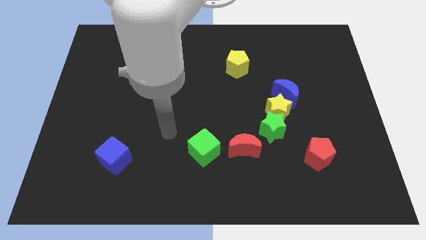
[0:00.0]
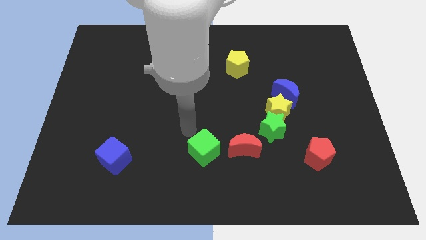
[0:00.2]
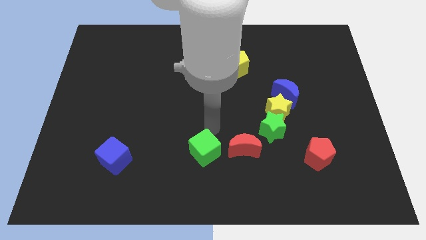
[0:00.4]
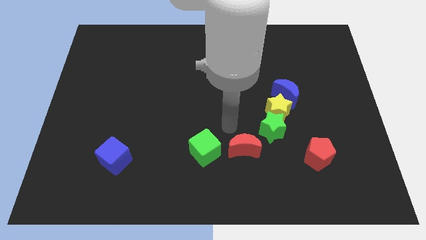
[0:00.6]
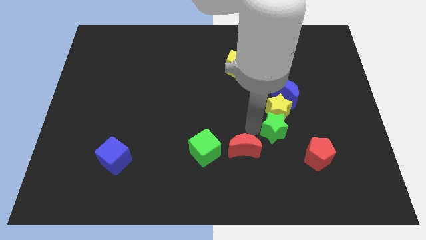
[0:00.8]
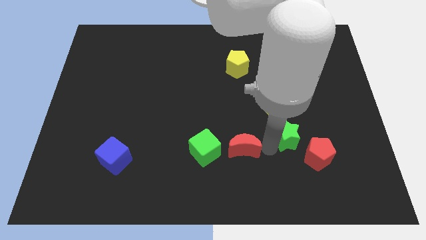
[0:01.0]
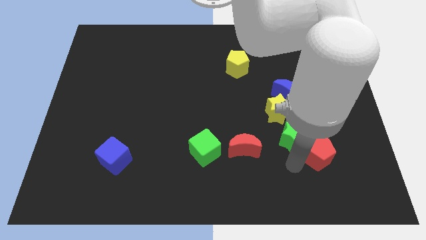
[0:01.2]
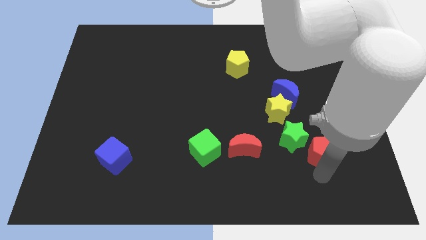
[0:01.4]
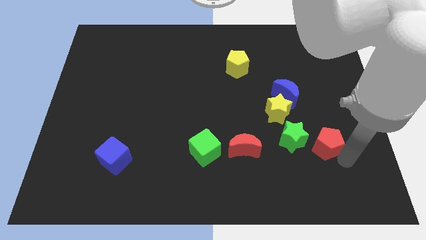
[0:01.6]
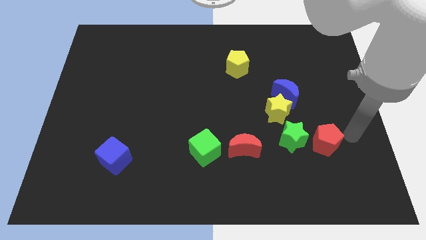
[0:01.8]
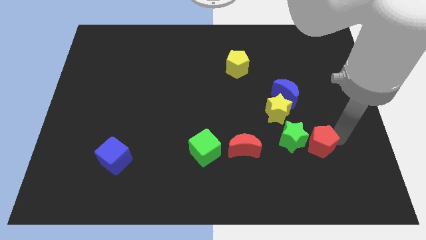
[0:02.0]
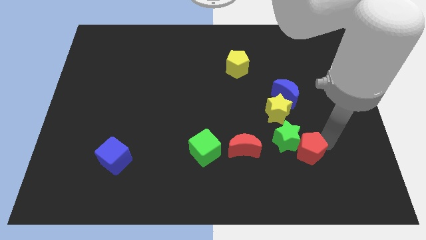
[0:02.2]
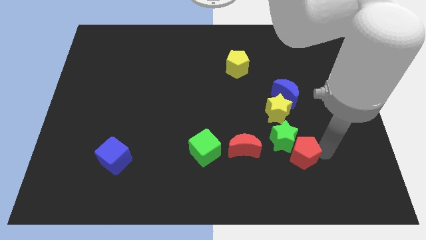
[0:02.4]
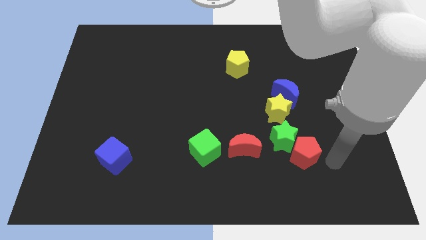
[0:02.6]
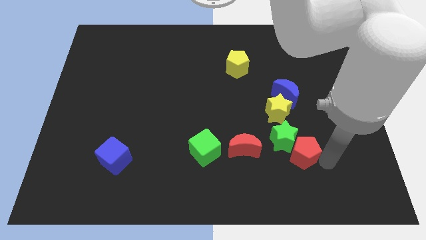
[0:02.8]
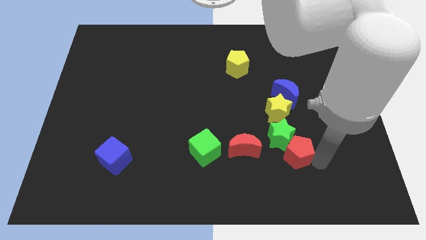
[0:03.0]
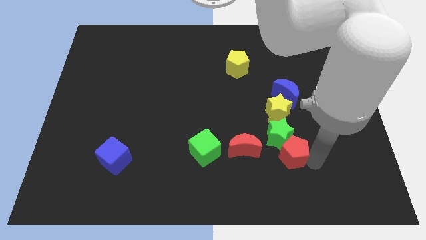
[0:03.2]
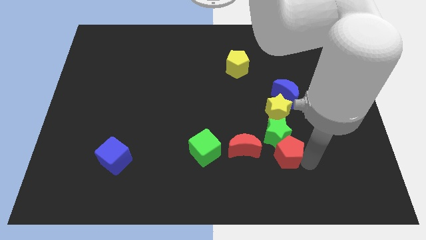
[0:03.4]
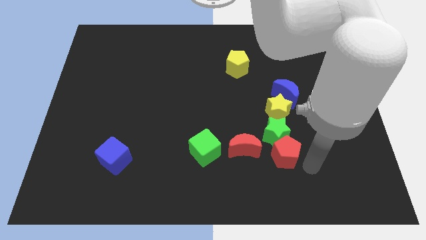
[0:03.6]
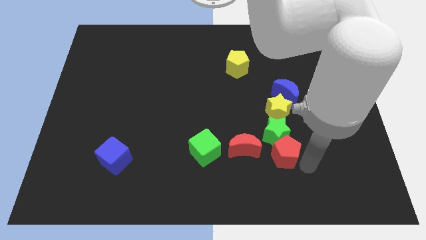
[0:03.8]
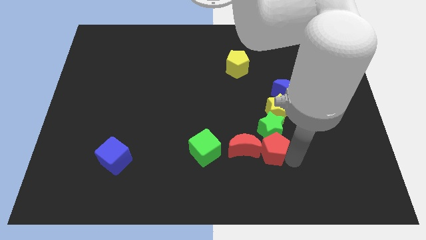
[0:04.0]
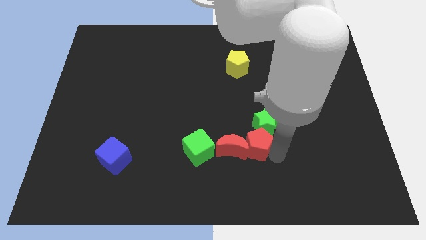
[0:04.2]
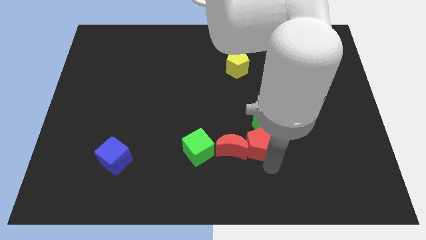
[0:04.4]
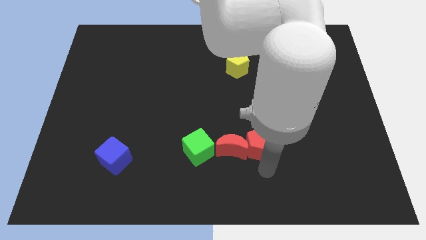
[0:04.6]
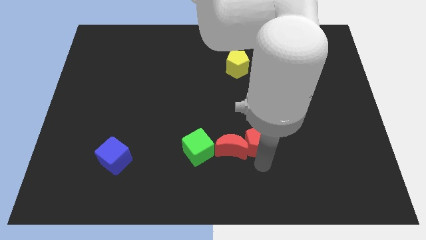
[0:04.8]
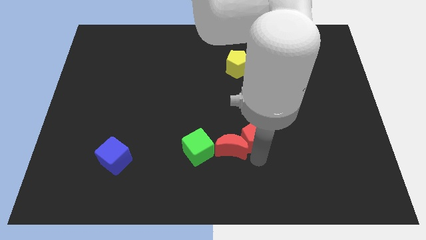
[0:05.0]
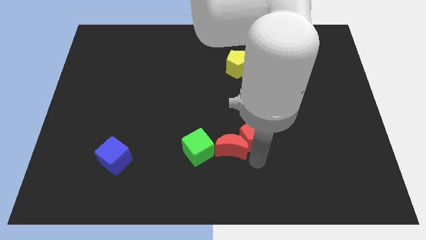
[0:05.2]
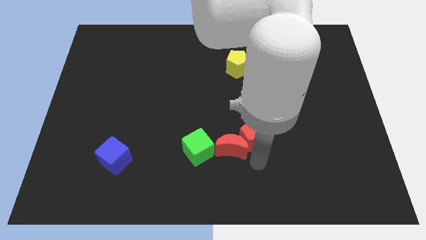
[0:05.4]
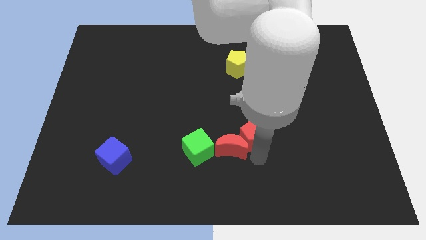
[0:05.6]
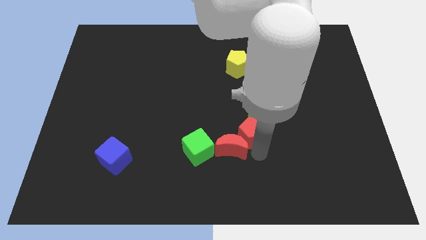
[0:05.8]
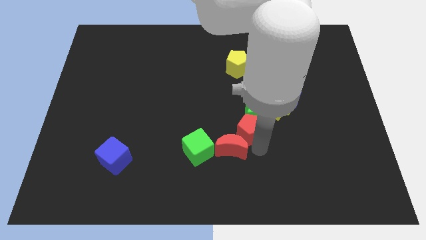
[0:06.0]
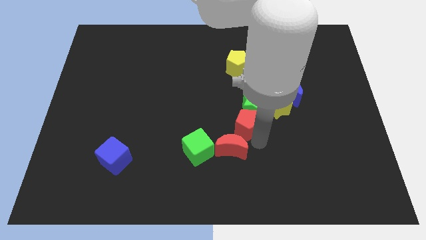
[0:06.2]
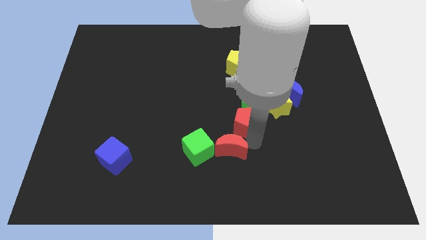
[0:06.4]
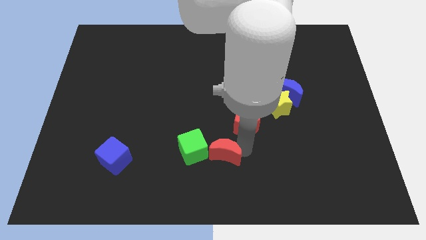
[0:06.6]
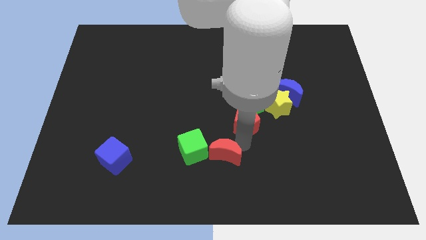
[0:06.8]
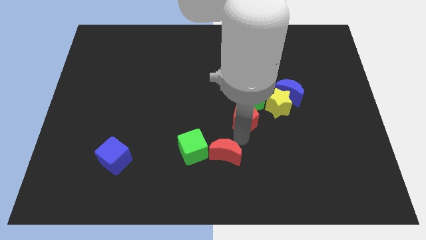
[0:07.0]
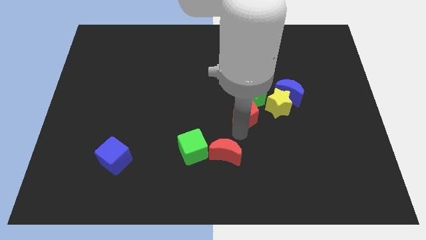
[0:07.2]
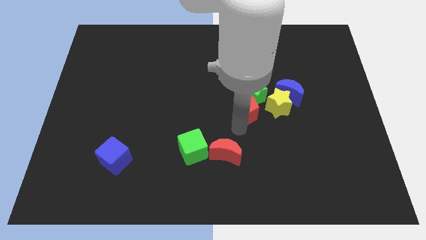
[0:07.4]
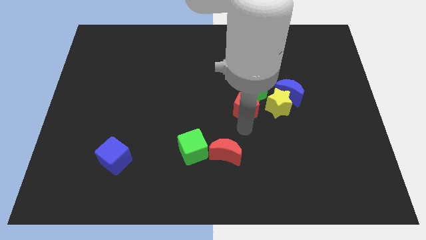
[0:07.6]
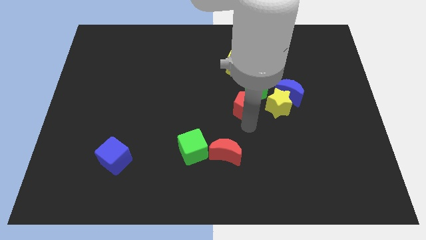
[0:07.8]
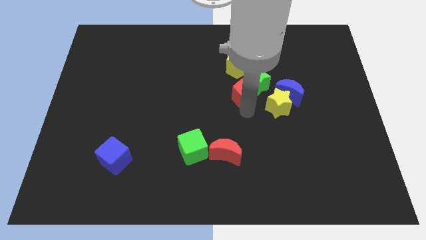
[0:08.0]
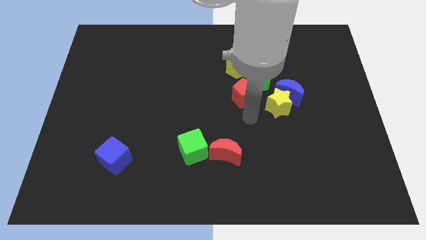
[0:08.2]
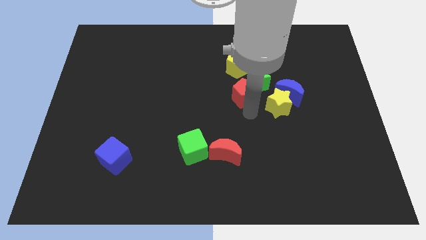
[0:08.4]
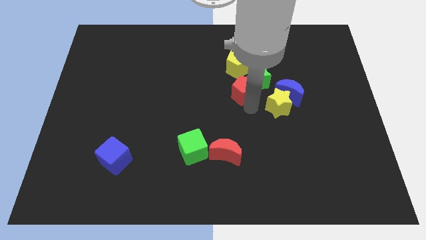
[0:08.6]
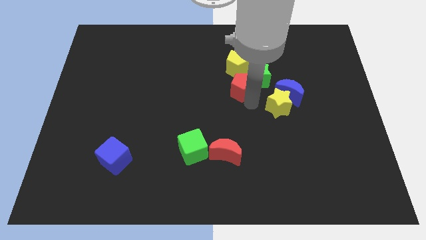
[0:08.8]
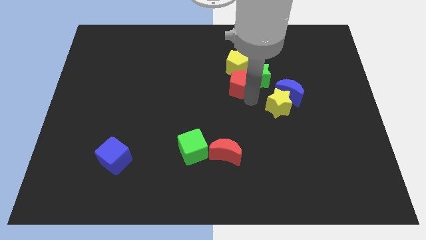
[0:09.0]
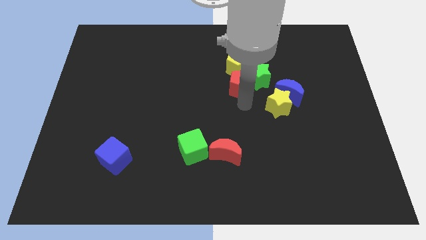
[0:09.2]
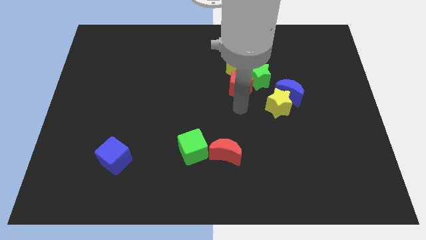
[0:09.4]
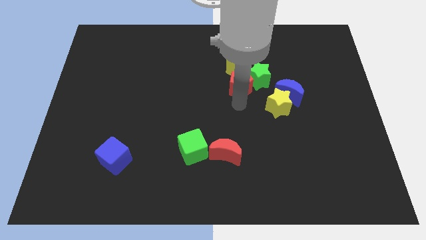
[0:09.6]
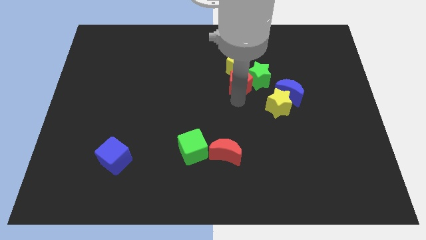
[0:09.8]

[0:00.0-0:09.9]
put the red pentagon towards the yellow pentagon

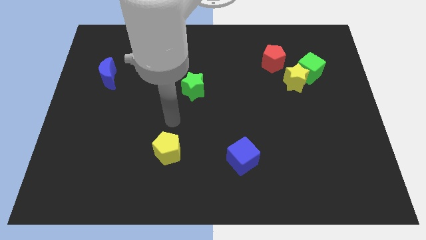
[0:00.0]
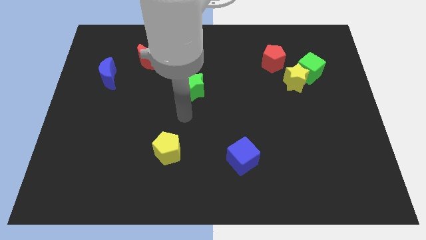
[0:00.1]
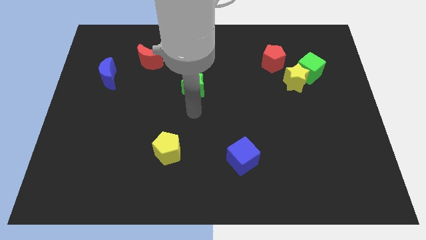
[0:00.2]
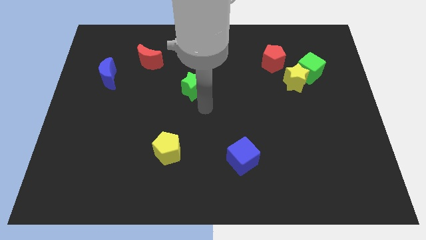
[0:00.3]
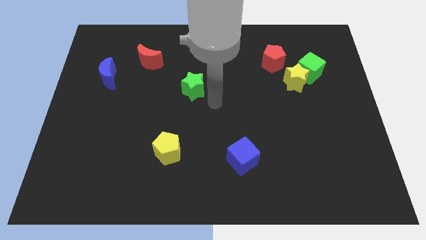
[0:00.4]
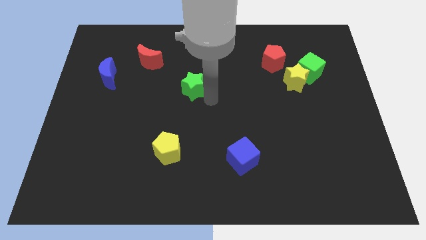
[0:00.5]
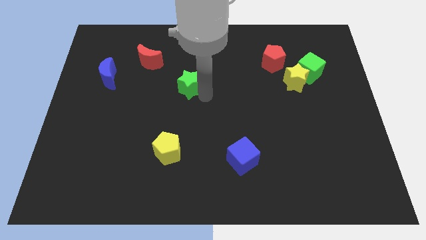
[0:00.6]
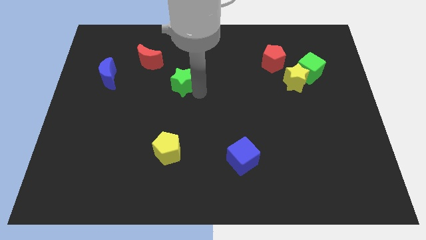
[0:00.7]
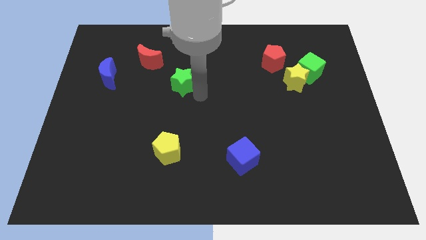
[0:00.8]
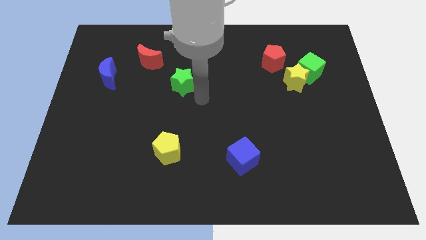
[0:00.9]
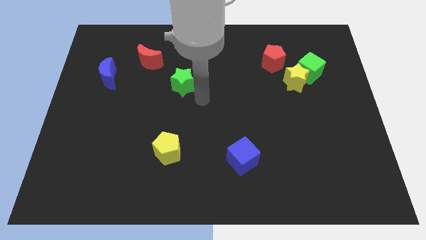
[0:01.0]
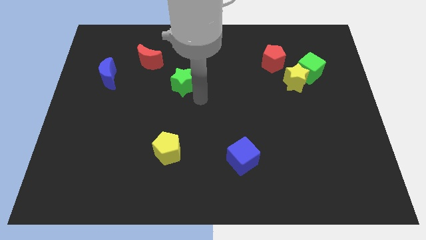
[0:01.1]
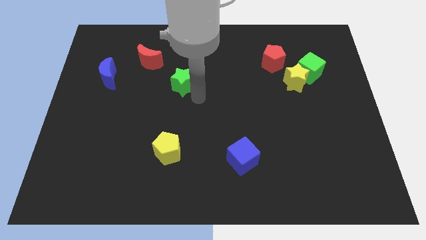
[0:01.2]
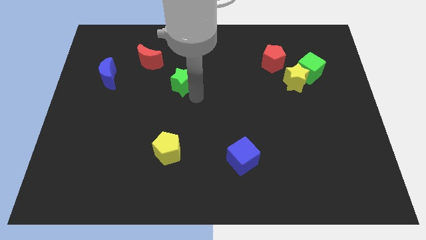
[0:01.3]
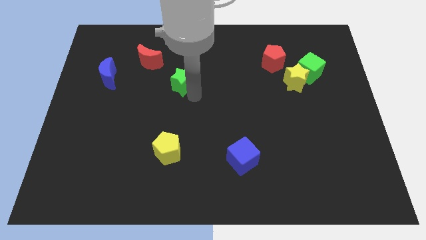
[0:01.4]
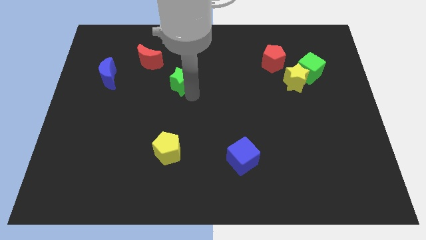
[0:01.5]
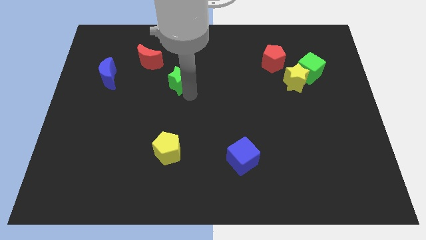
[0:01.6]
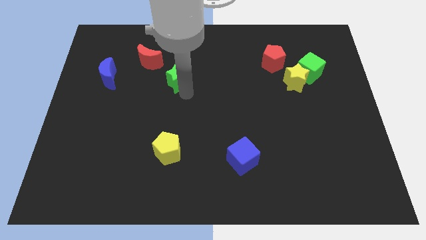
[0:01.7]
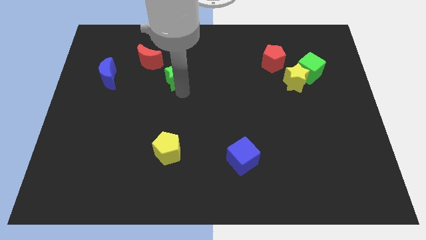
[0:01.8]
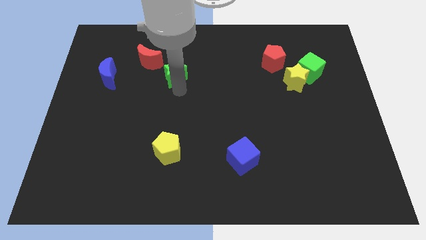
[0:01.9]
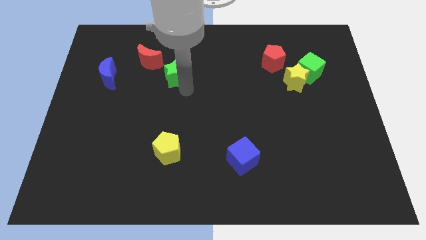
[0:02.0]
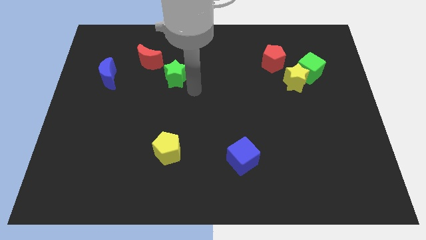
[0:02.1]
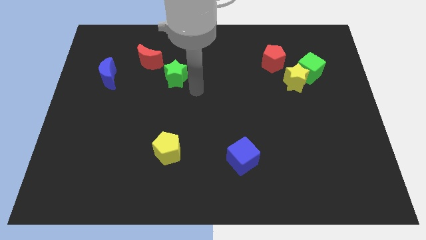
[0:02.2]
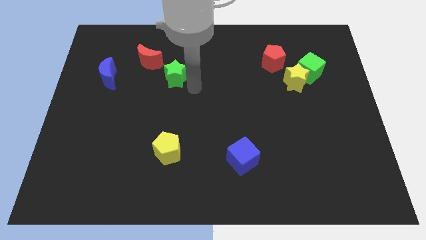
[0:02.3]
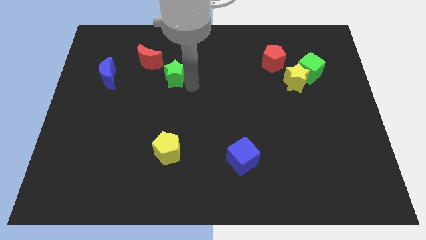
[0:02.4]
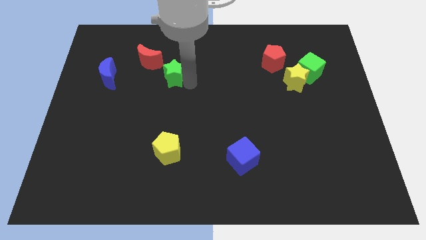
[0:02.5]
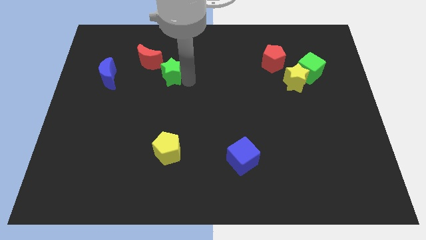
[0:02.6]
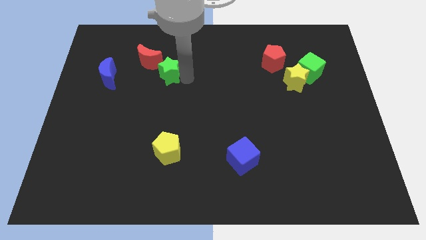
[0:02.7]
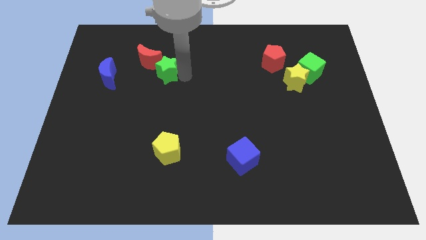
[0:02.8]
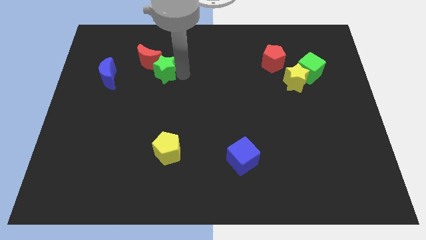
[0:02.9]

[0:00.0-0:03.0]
slide the green star next to the red moon
